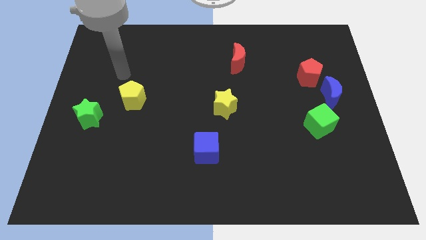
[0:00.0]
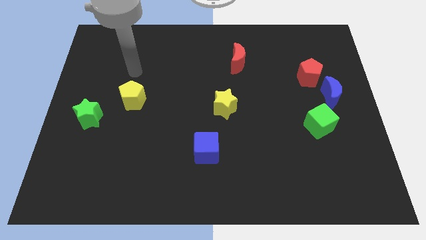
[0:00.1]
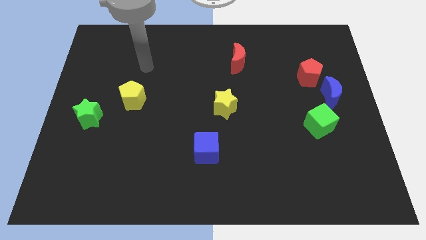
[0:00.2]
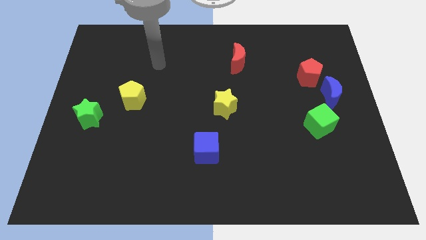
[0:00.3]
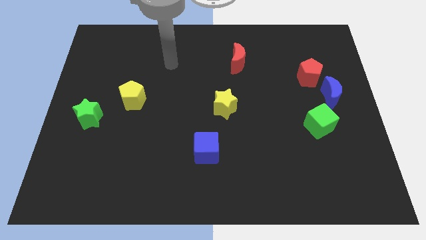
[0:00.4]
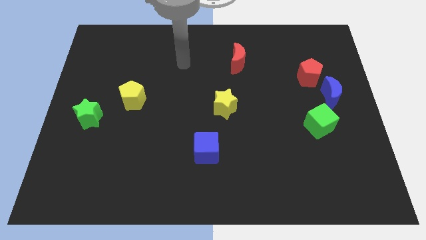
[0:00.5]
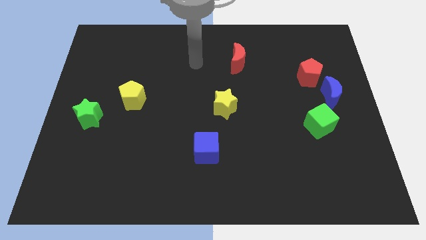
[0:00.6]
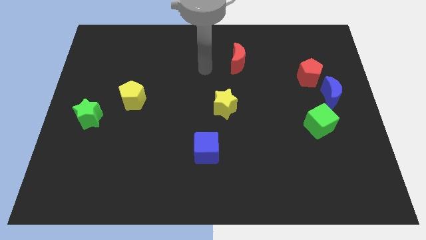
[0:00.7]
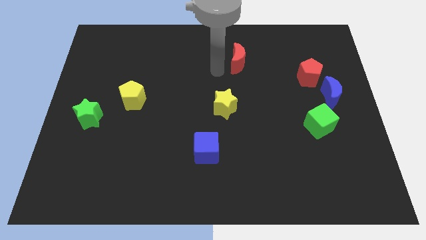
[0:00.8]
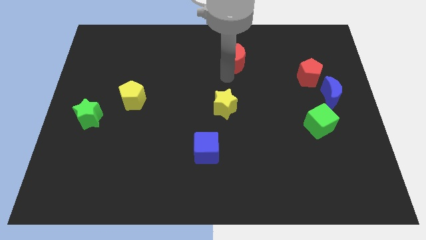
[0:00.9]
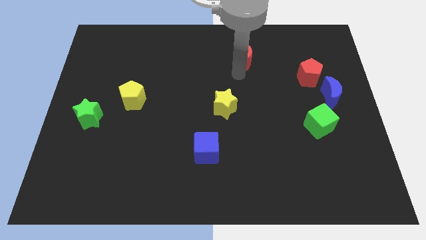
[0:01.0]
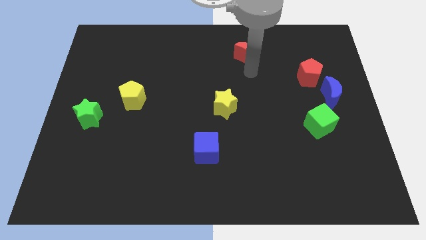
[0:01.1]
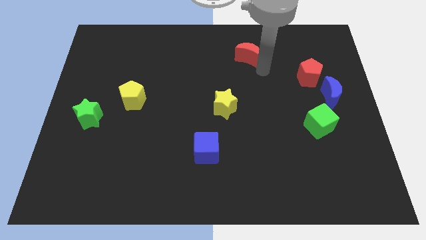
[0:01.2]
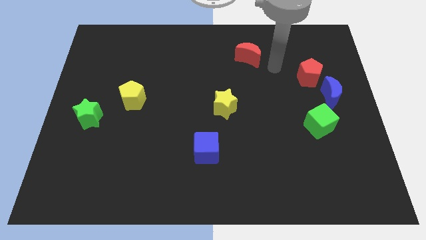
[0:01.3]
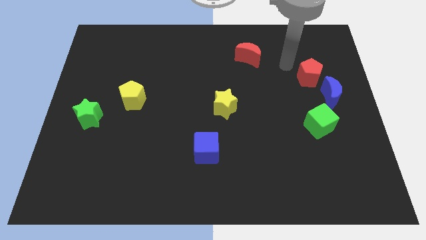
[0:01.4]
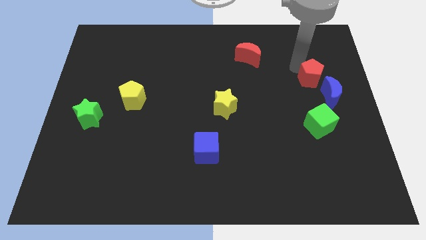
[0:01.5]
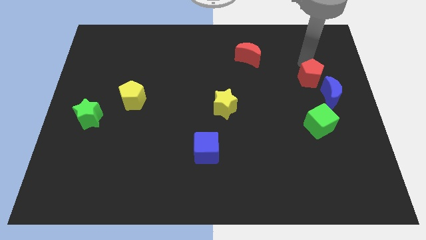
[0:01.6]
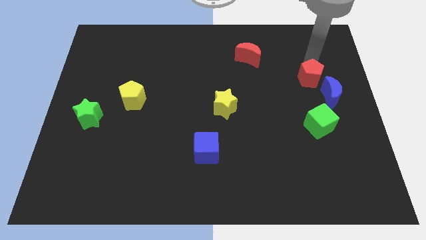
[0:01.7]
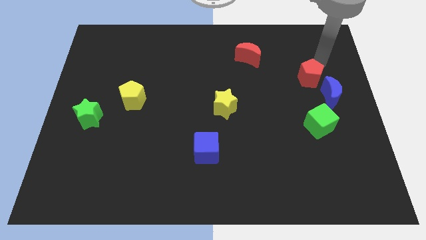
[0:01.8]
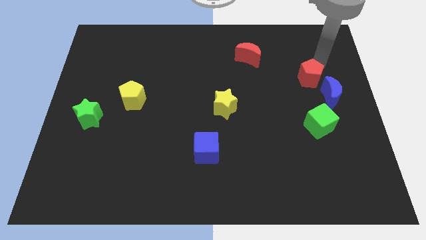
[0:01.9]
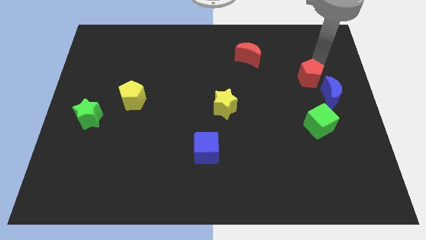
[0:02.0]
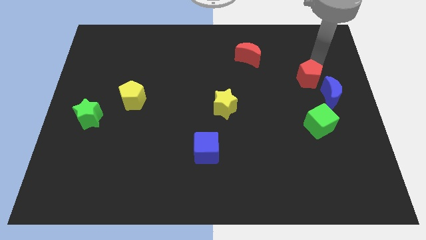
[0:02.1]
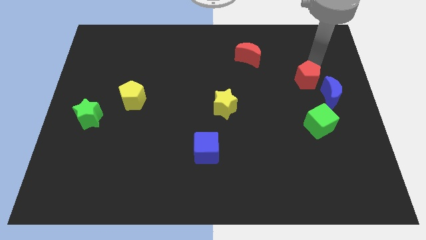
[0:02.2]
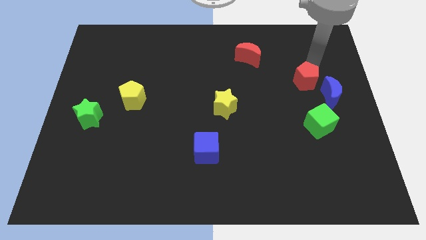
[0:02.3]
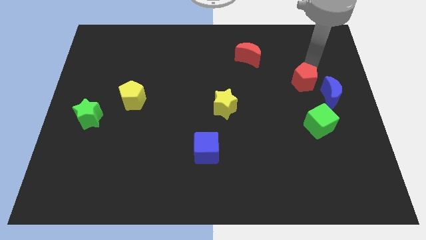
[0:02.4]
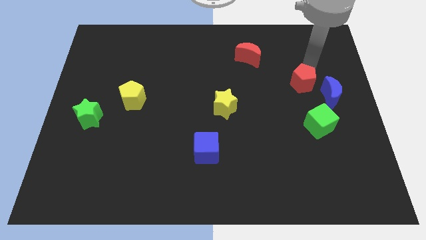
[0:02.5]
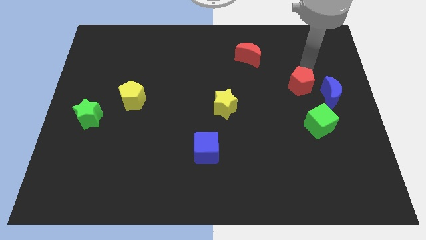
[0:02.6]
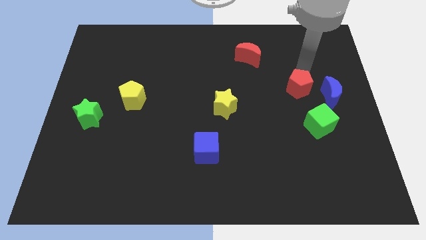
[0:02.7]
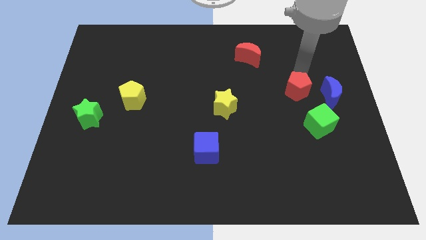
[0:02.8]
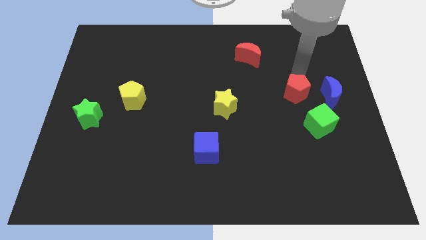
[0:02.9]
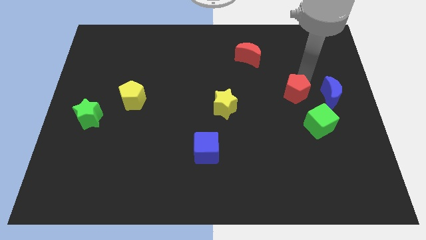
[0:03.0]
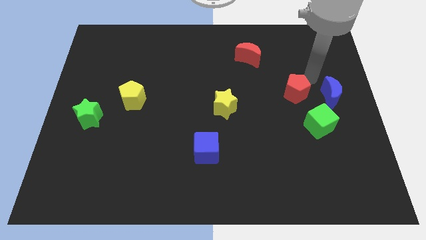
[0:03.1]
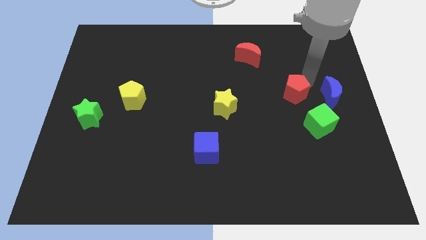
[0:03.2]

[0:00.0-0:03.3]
push the red pentagon slightly downwards and then left

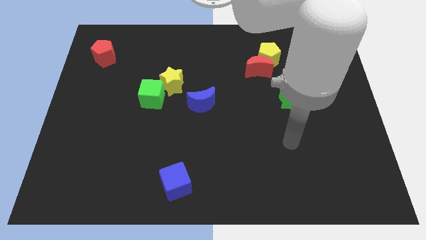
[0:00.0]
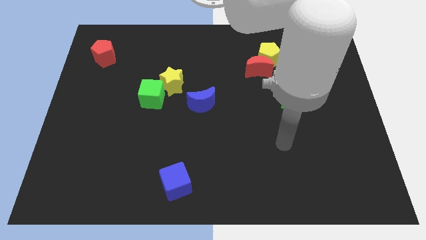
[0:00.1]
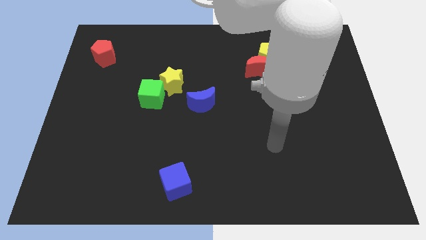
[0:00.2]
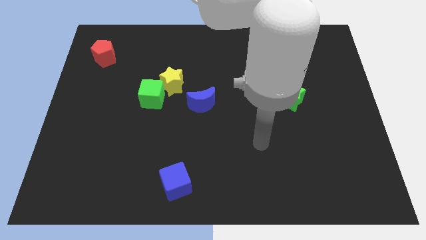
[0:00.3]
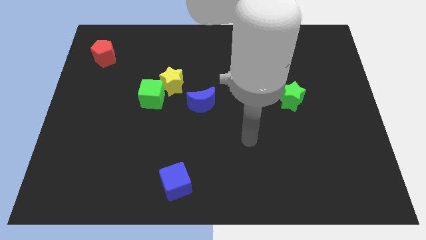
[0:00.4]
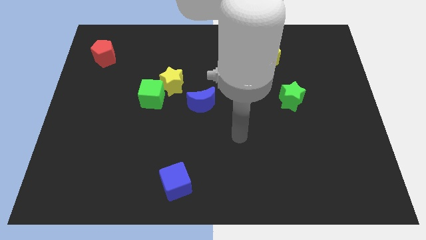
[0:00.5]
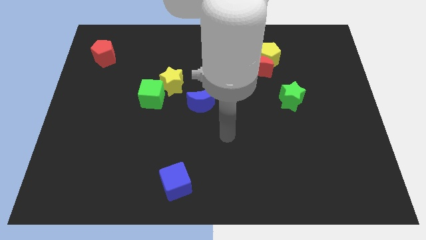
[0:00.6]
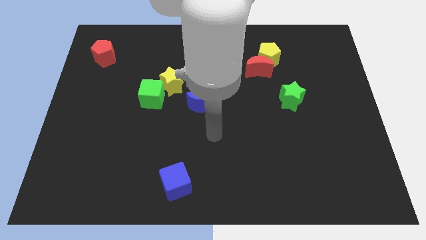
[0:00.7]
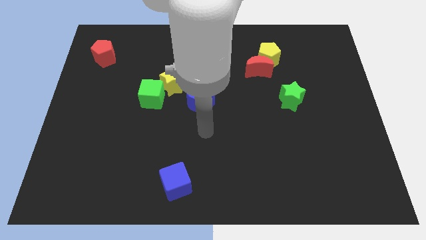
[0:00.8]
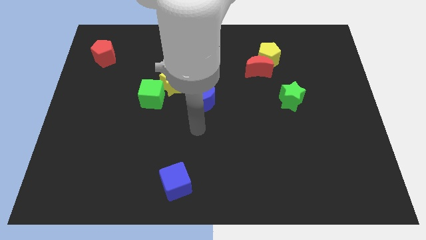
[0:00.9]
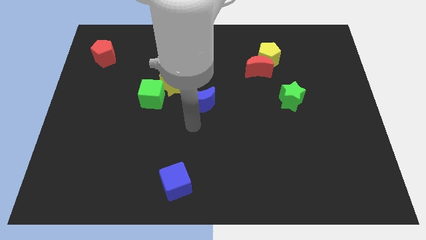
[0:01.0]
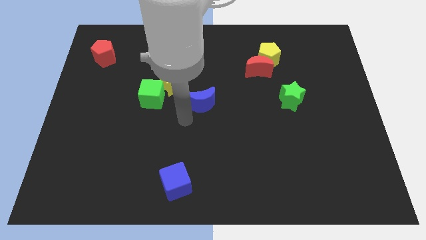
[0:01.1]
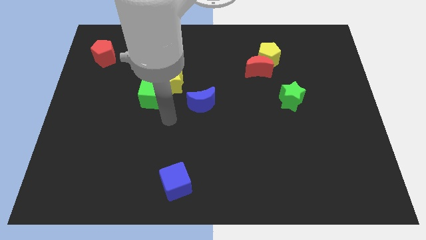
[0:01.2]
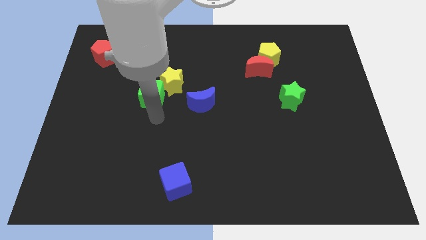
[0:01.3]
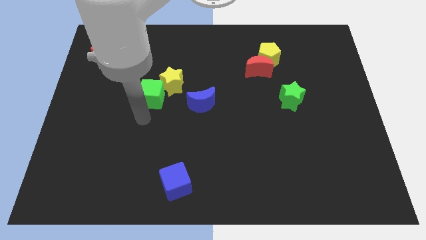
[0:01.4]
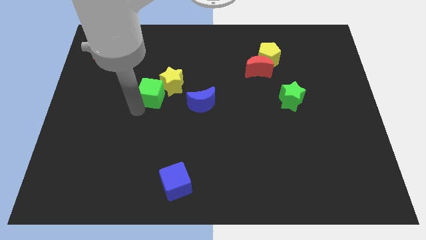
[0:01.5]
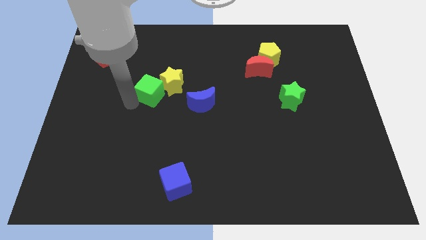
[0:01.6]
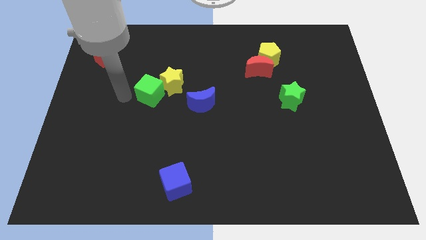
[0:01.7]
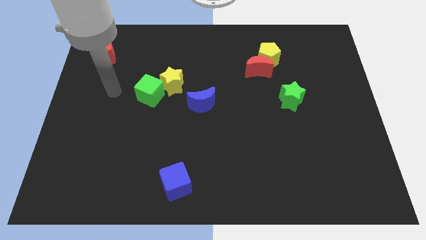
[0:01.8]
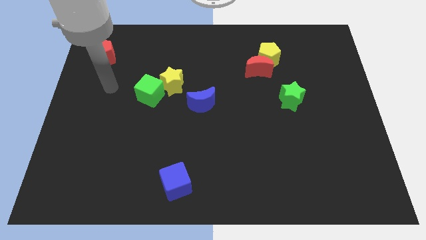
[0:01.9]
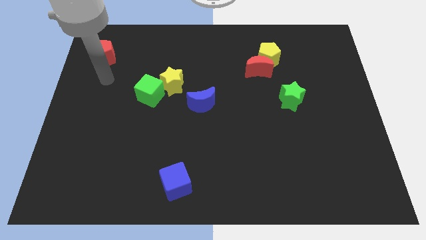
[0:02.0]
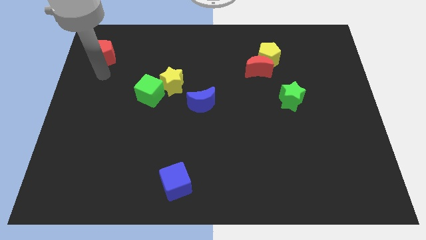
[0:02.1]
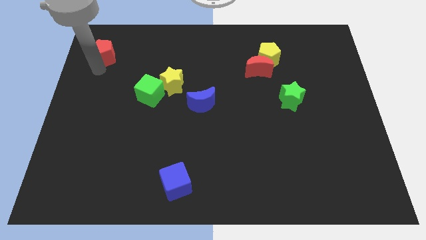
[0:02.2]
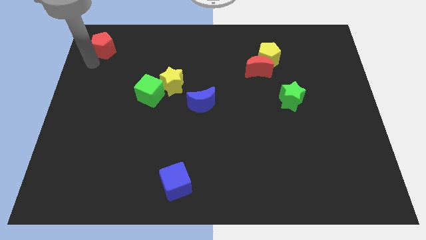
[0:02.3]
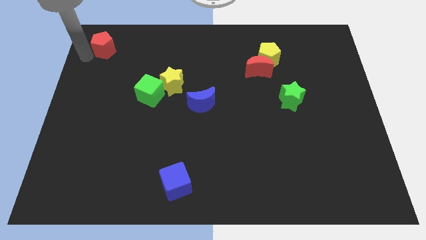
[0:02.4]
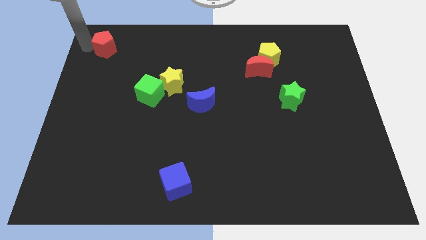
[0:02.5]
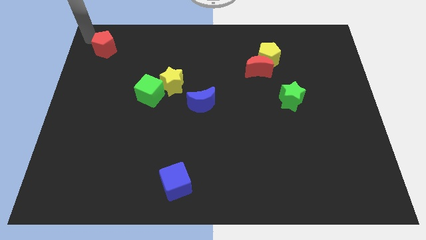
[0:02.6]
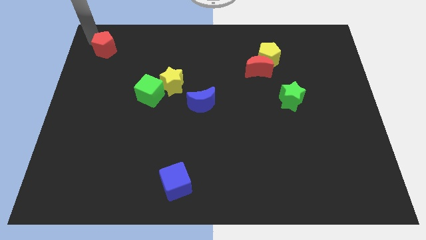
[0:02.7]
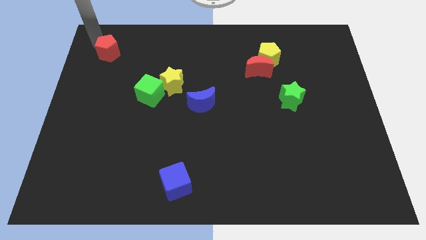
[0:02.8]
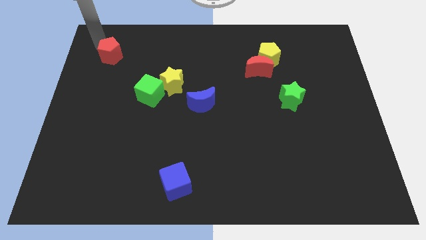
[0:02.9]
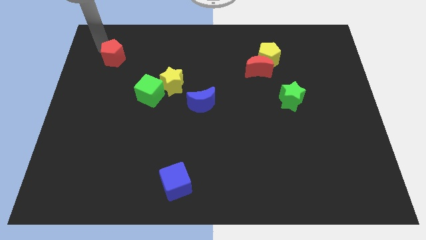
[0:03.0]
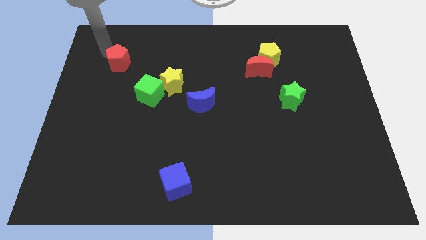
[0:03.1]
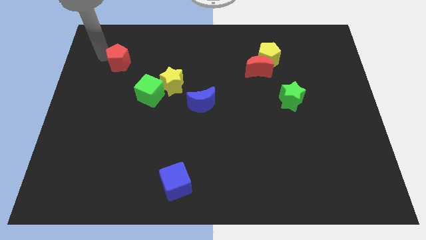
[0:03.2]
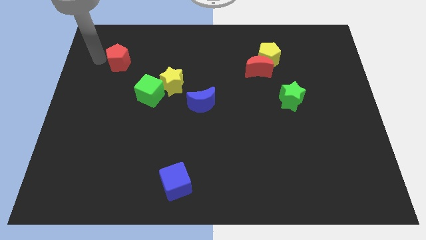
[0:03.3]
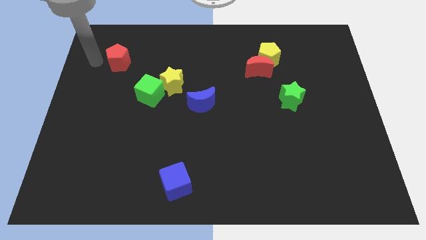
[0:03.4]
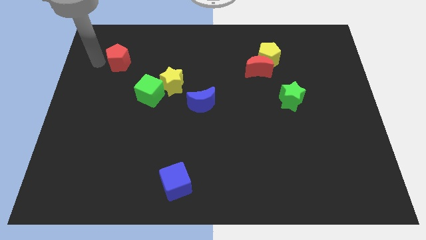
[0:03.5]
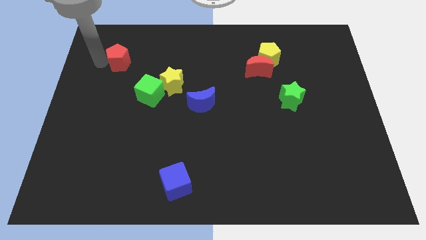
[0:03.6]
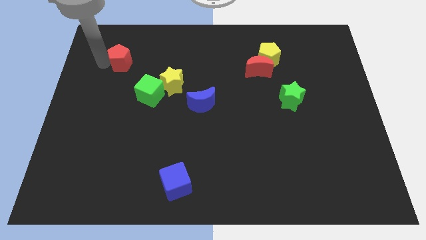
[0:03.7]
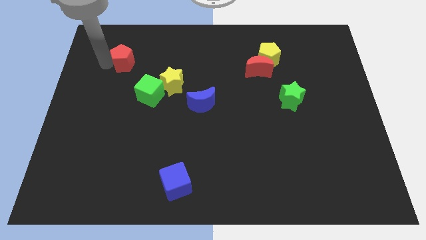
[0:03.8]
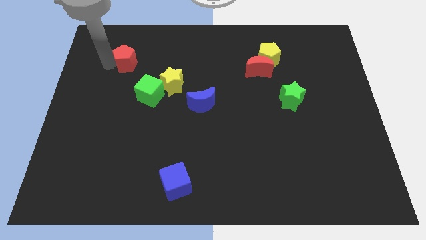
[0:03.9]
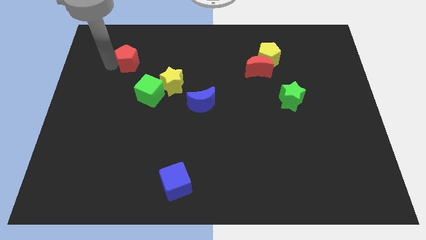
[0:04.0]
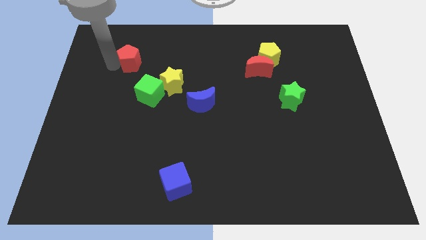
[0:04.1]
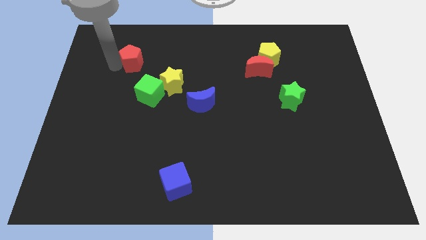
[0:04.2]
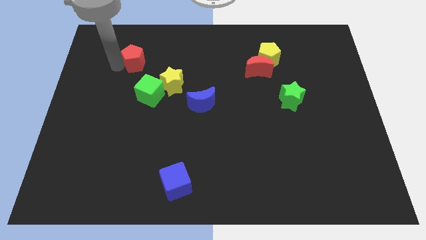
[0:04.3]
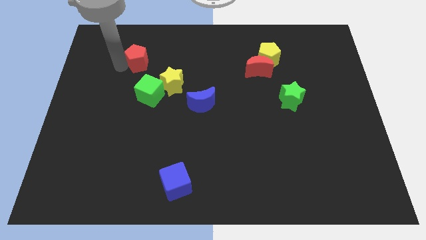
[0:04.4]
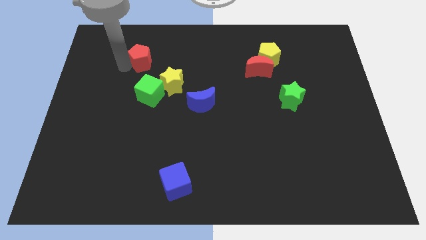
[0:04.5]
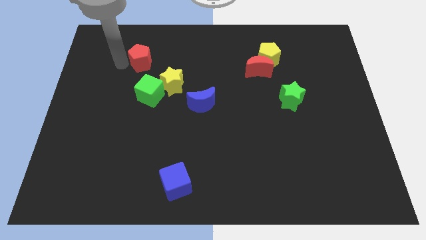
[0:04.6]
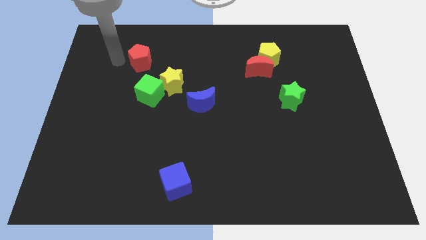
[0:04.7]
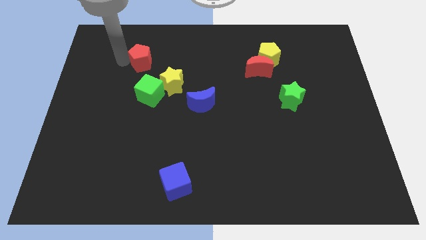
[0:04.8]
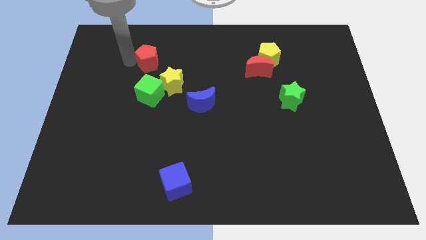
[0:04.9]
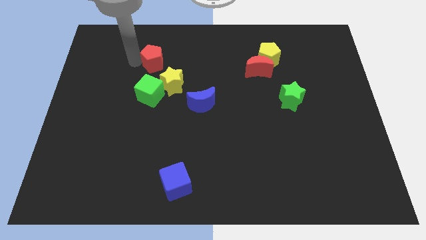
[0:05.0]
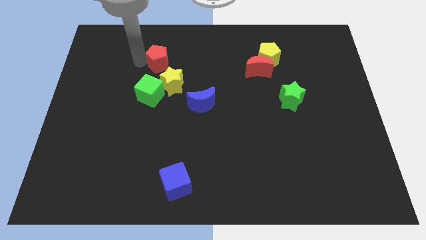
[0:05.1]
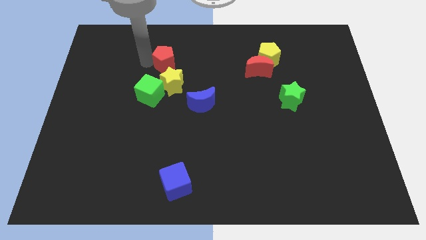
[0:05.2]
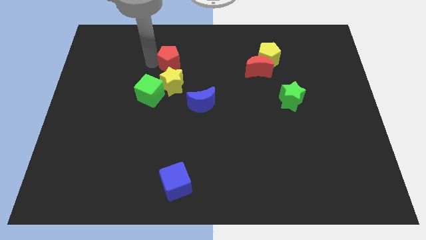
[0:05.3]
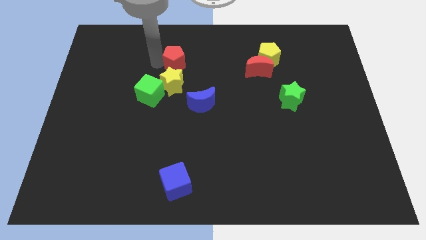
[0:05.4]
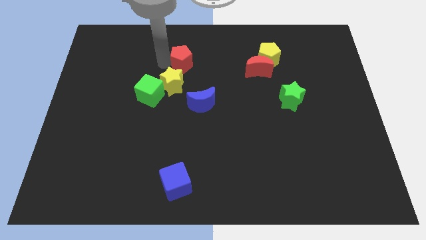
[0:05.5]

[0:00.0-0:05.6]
move the red pentagon right
